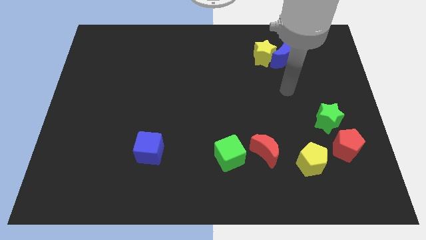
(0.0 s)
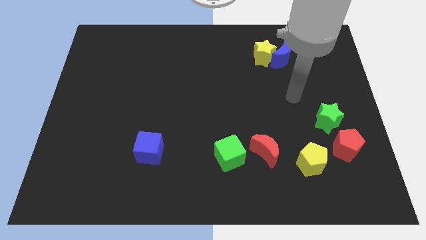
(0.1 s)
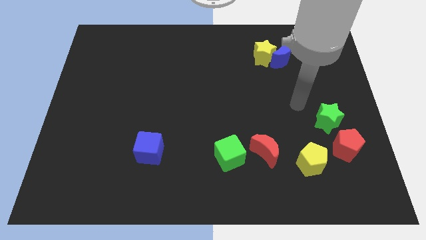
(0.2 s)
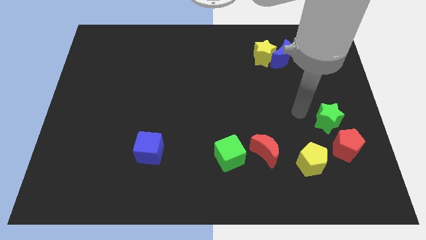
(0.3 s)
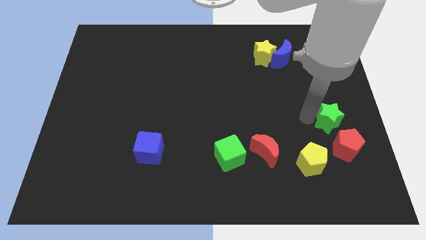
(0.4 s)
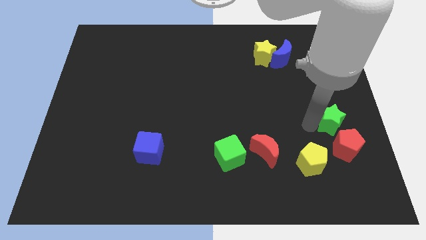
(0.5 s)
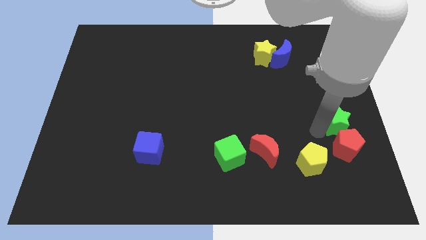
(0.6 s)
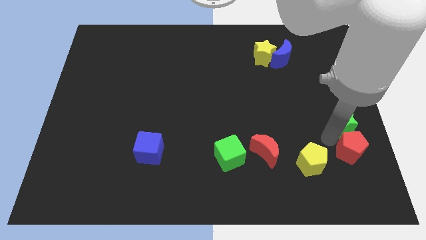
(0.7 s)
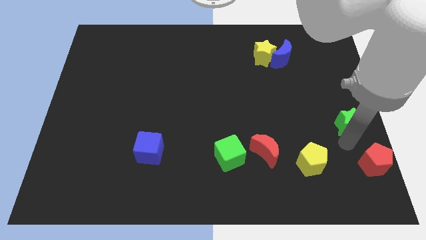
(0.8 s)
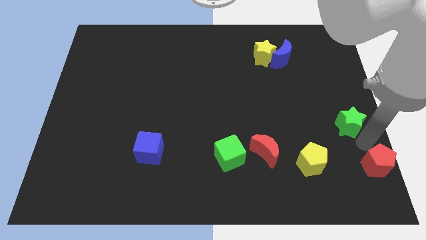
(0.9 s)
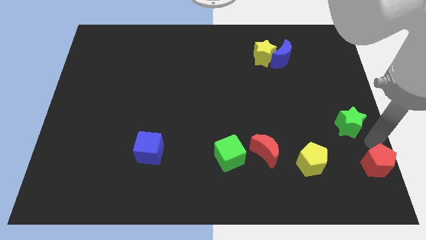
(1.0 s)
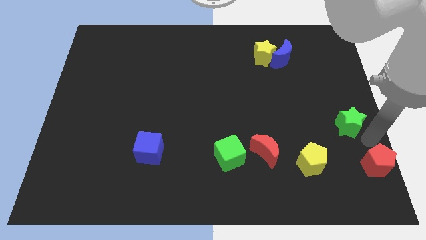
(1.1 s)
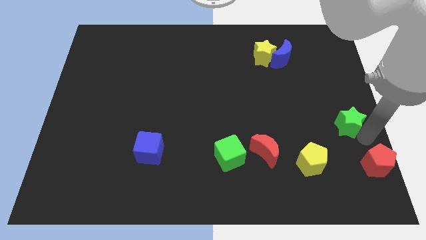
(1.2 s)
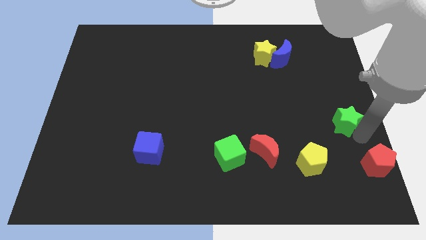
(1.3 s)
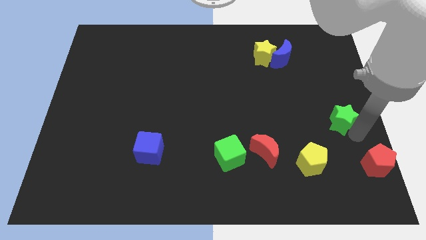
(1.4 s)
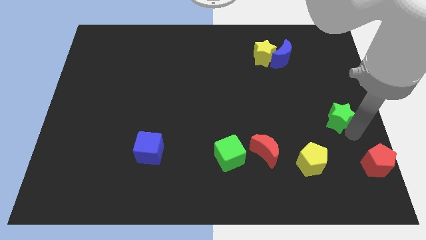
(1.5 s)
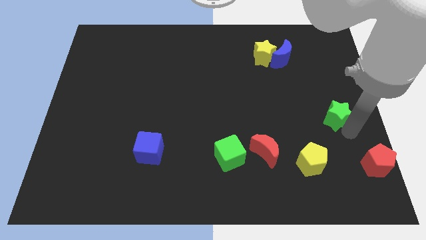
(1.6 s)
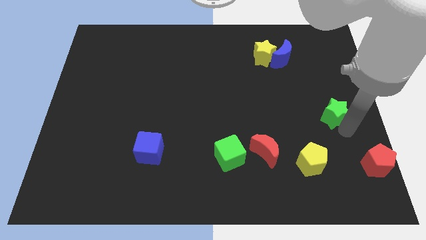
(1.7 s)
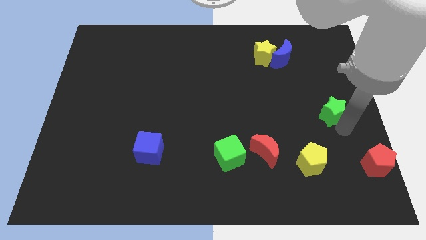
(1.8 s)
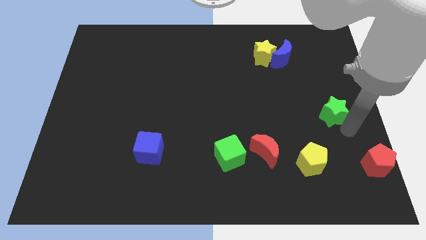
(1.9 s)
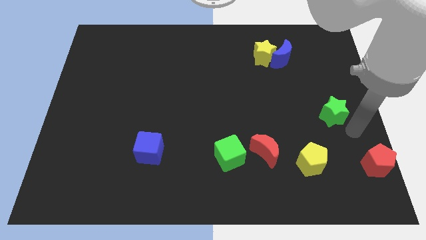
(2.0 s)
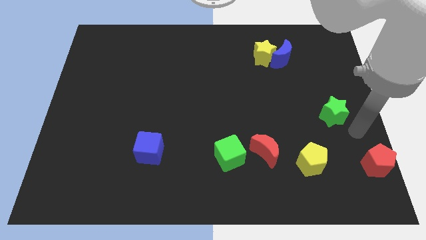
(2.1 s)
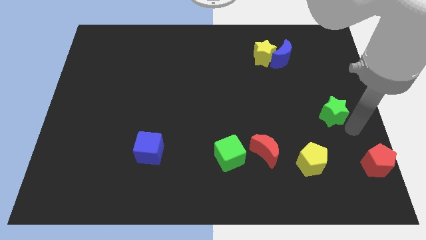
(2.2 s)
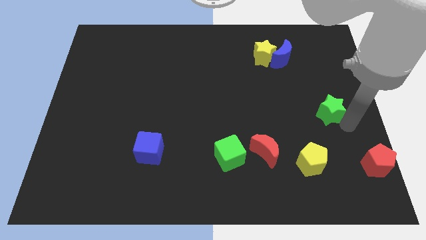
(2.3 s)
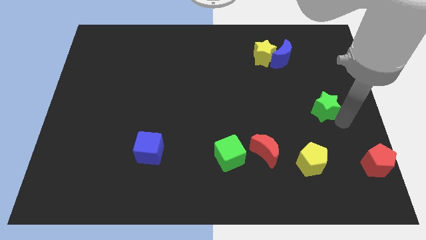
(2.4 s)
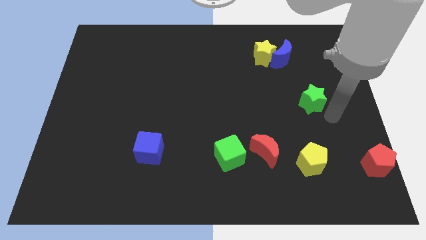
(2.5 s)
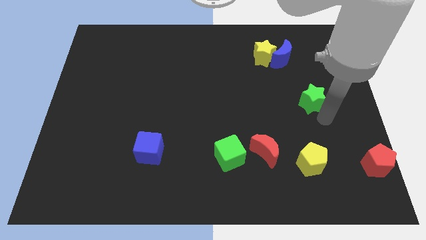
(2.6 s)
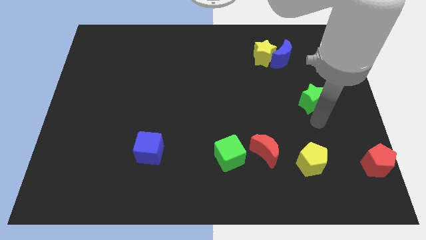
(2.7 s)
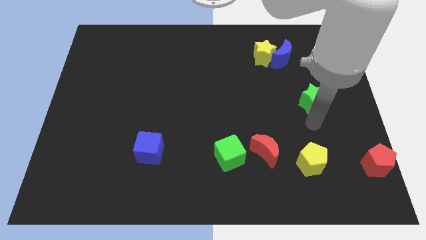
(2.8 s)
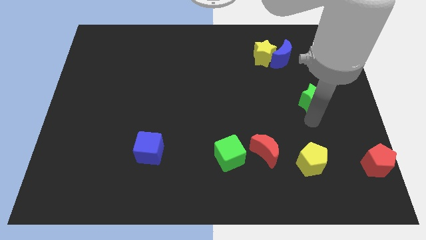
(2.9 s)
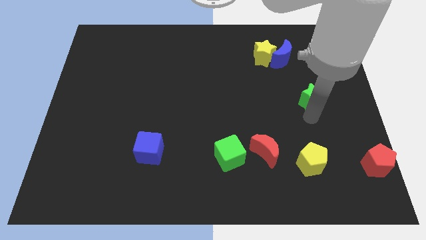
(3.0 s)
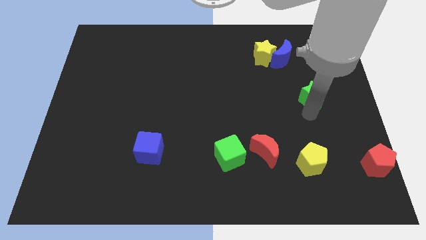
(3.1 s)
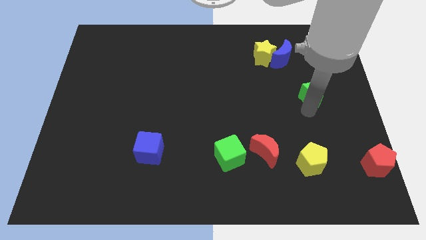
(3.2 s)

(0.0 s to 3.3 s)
slightly push the green star up

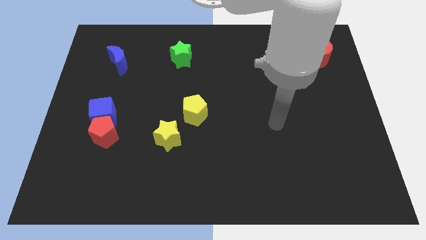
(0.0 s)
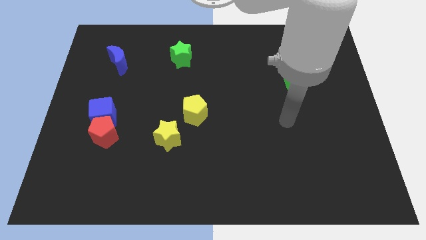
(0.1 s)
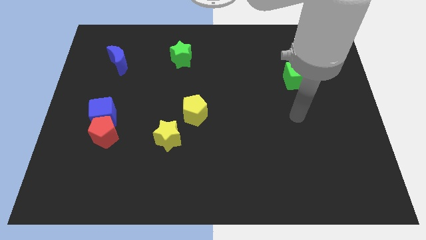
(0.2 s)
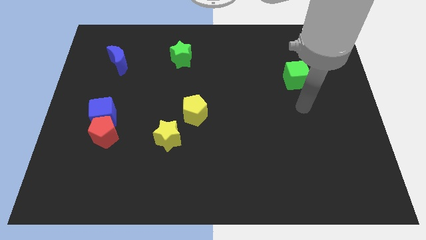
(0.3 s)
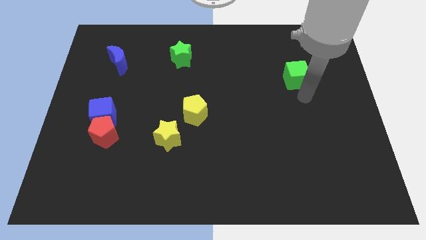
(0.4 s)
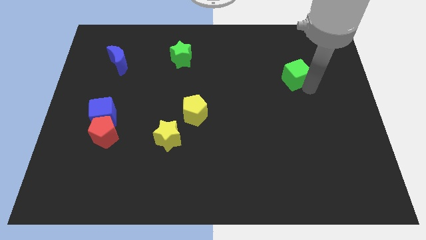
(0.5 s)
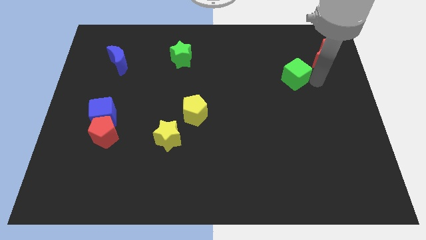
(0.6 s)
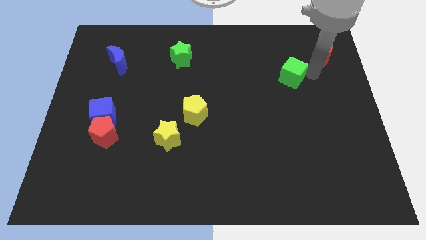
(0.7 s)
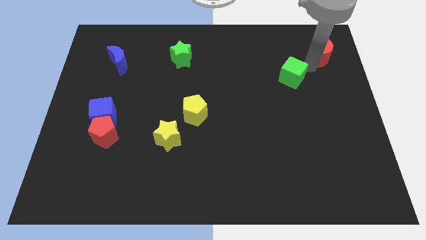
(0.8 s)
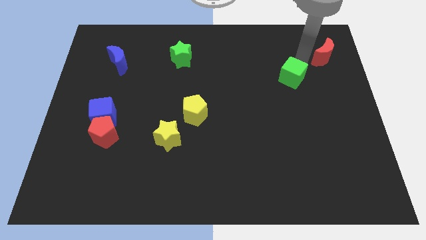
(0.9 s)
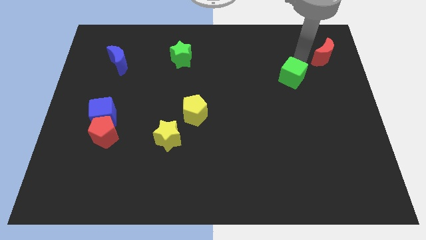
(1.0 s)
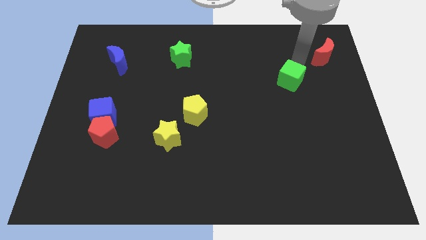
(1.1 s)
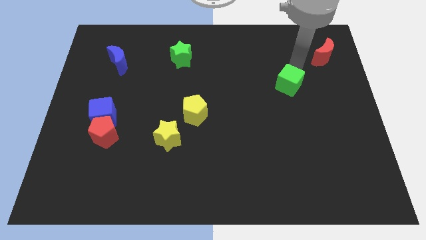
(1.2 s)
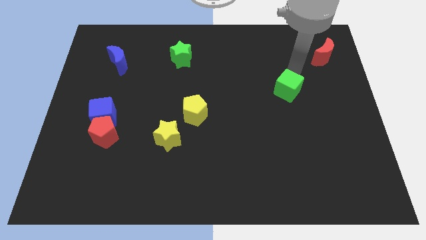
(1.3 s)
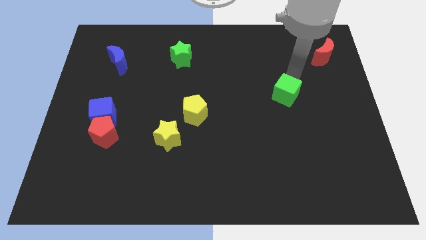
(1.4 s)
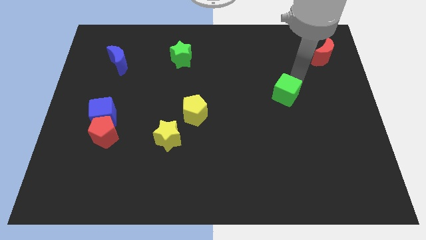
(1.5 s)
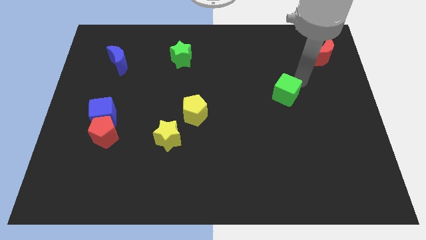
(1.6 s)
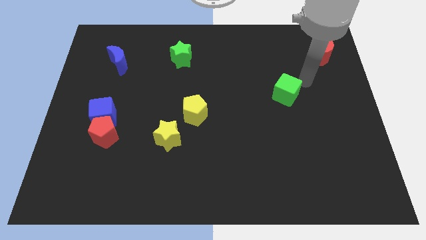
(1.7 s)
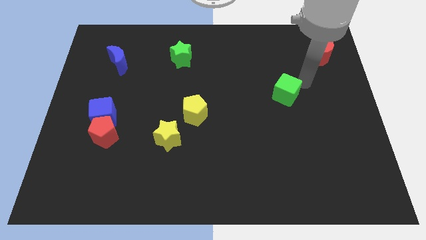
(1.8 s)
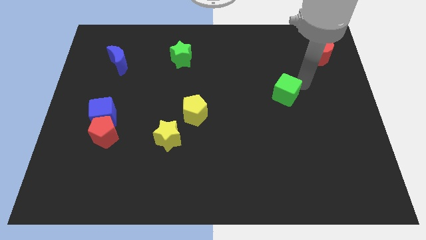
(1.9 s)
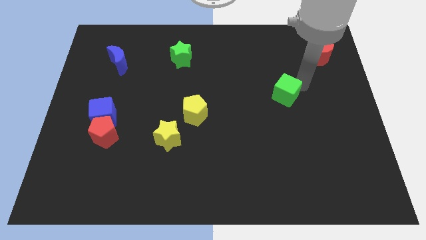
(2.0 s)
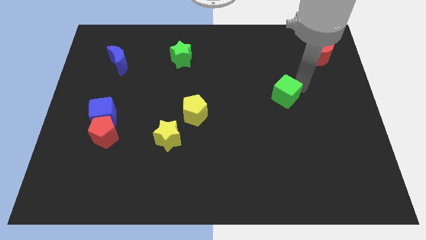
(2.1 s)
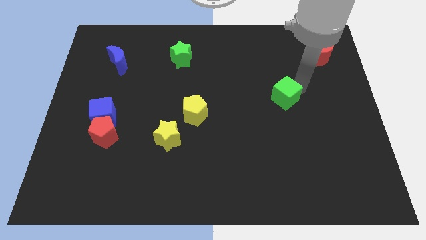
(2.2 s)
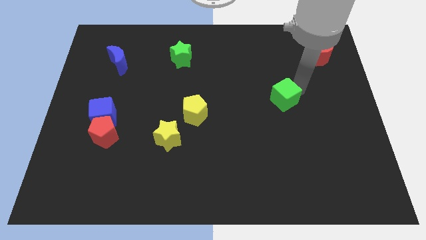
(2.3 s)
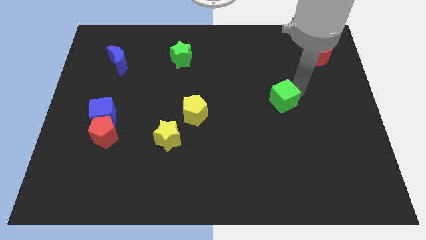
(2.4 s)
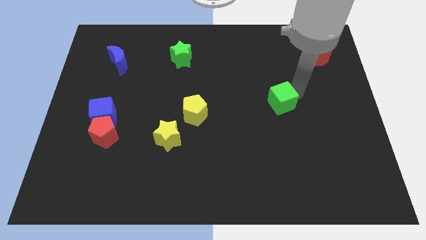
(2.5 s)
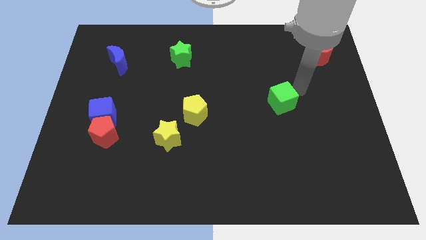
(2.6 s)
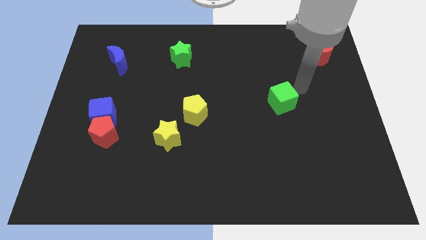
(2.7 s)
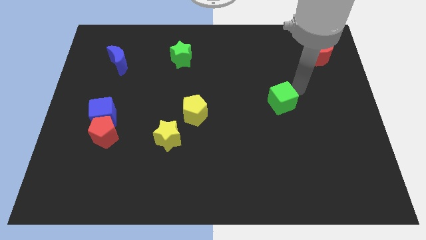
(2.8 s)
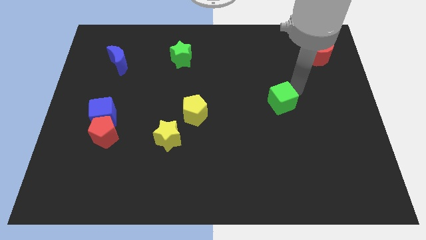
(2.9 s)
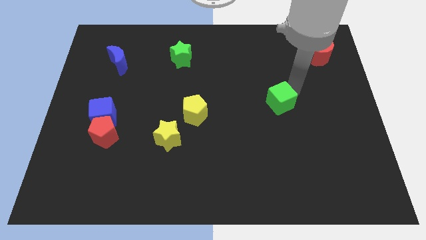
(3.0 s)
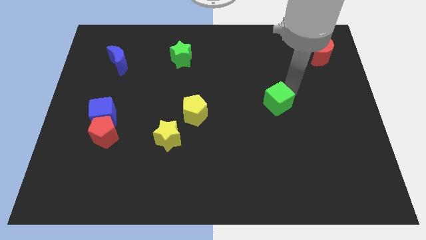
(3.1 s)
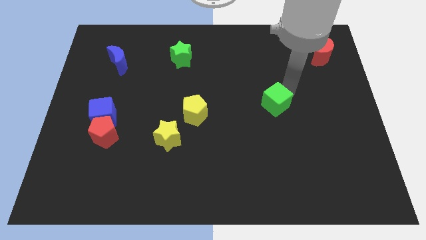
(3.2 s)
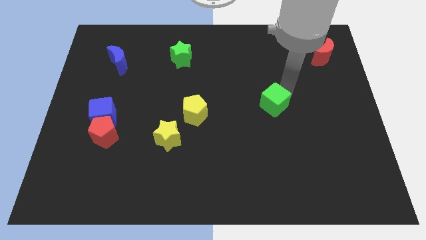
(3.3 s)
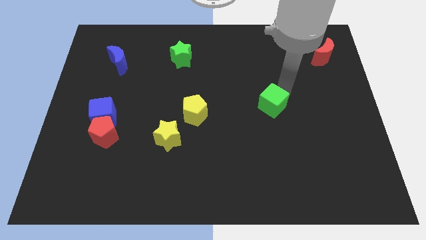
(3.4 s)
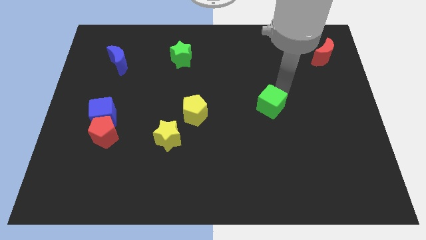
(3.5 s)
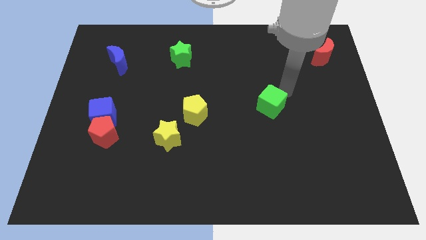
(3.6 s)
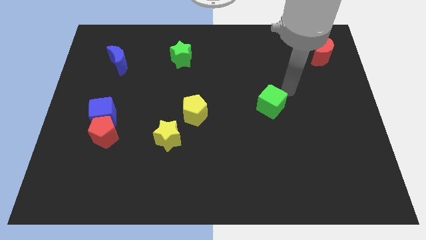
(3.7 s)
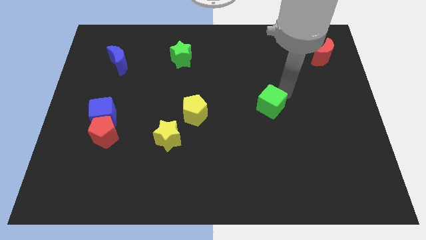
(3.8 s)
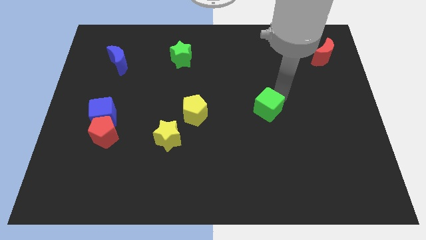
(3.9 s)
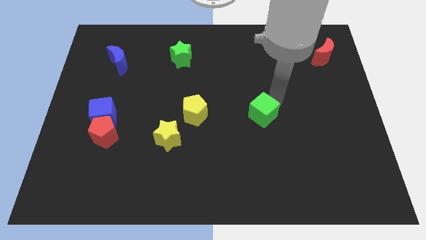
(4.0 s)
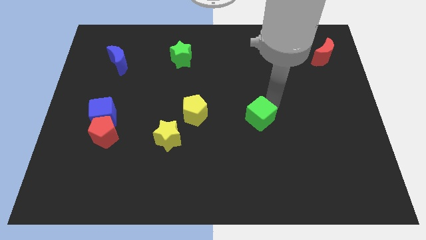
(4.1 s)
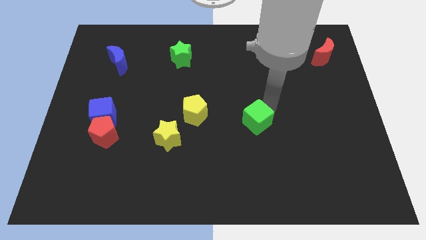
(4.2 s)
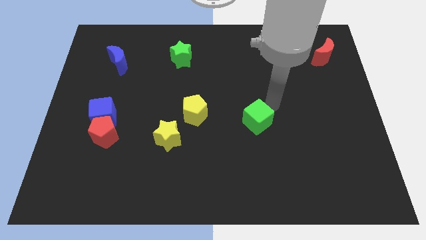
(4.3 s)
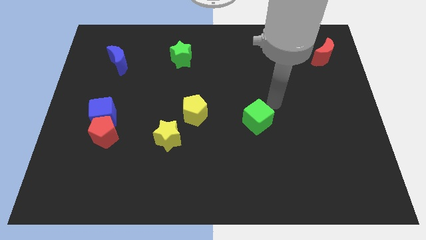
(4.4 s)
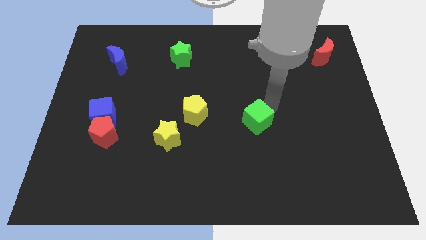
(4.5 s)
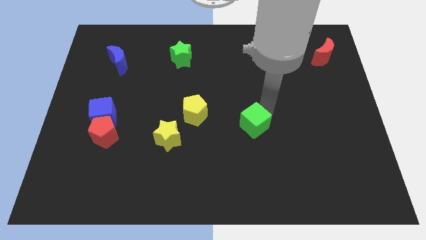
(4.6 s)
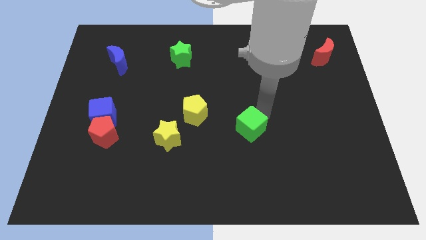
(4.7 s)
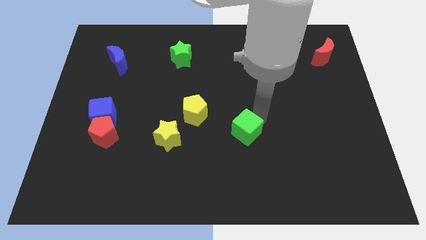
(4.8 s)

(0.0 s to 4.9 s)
push the green cube diagonally downwards and to the left
